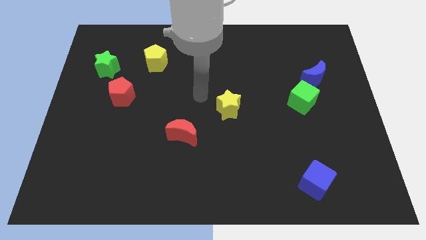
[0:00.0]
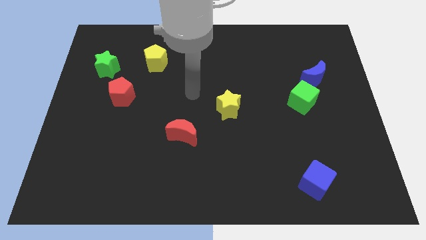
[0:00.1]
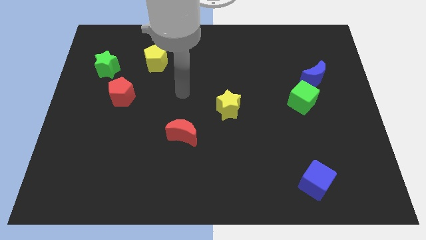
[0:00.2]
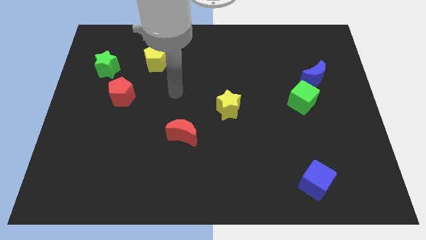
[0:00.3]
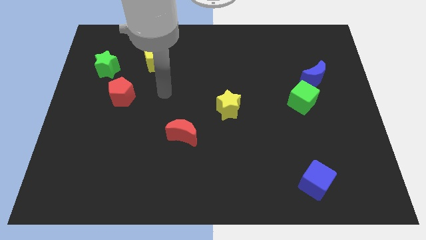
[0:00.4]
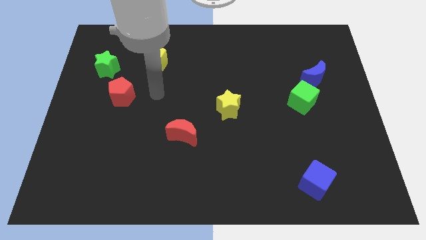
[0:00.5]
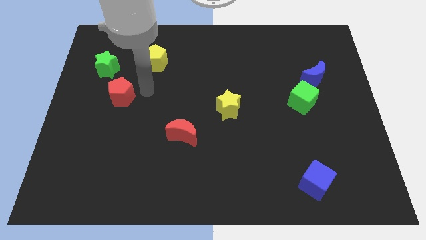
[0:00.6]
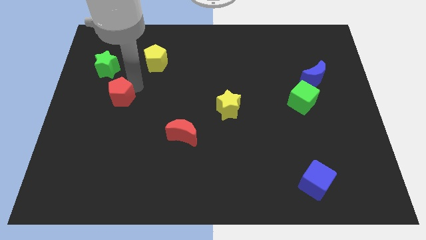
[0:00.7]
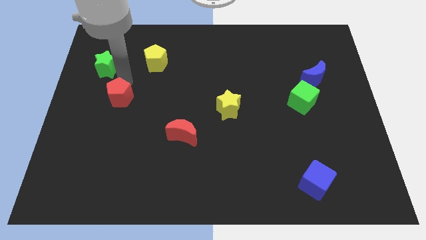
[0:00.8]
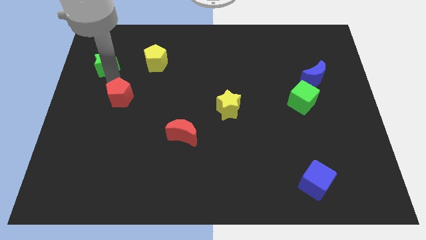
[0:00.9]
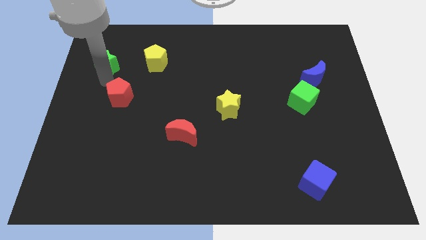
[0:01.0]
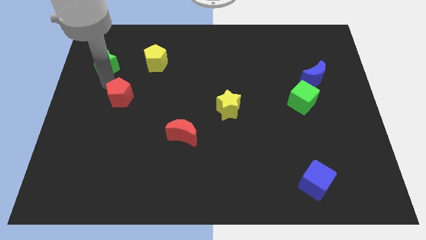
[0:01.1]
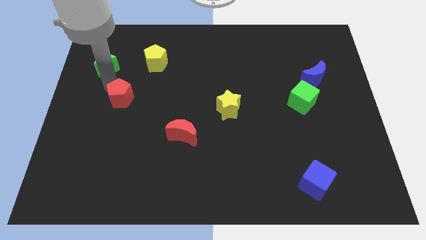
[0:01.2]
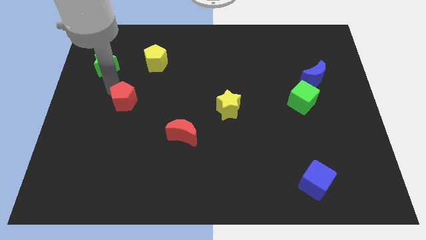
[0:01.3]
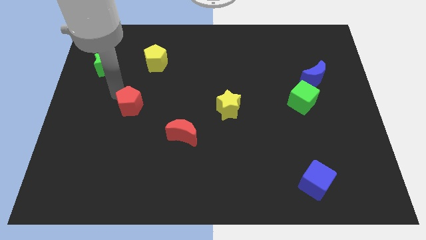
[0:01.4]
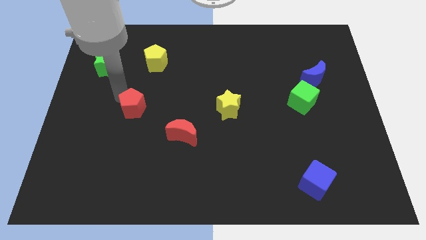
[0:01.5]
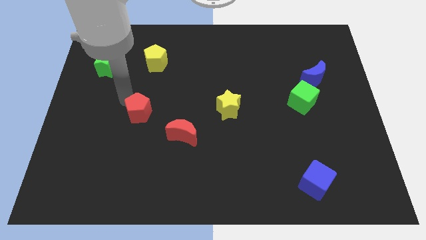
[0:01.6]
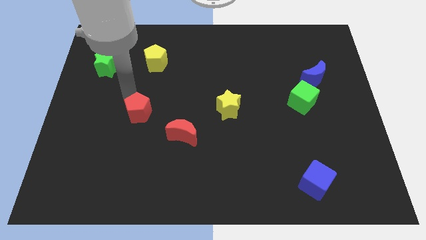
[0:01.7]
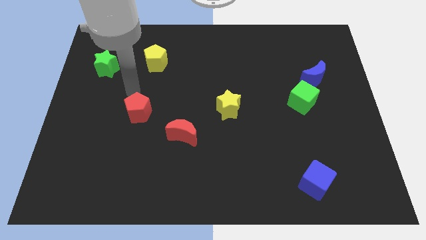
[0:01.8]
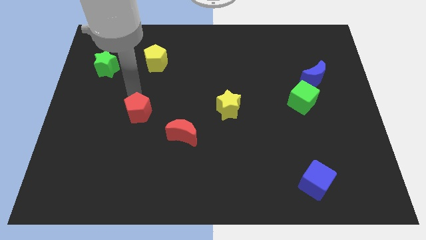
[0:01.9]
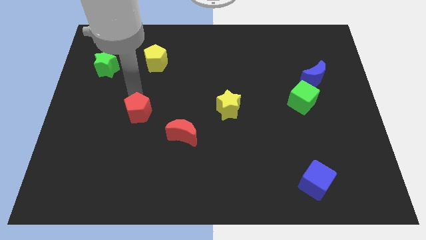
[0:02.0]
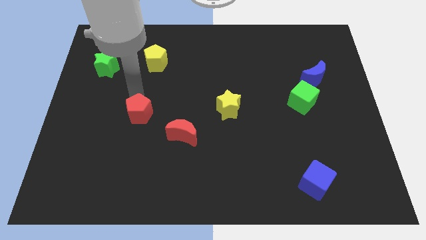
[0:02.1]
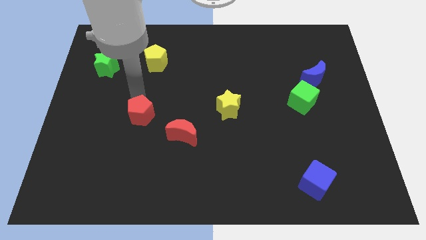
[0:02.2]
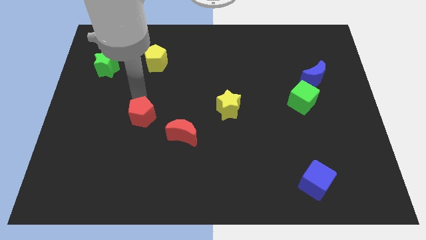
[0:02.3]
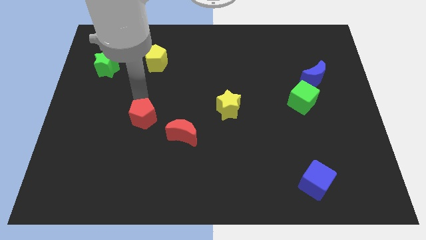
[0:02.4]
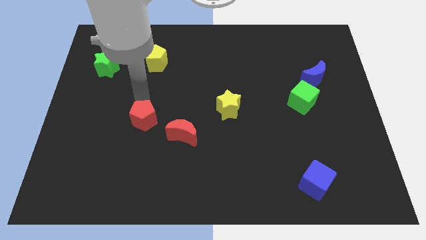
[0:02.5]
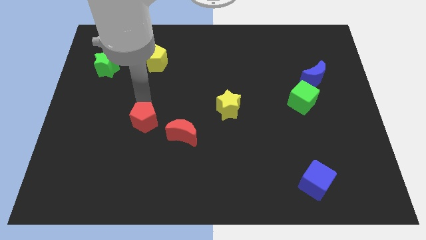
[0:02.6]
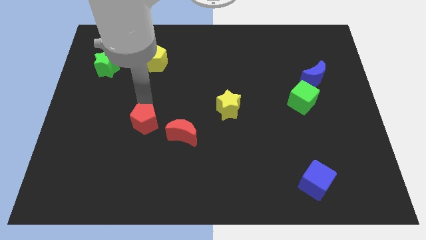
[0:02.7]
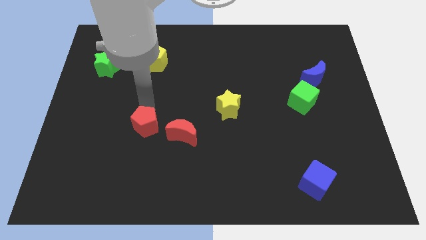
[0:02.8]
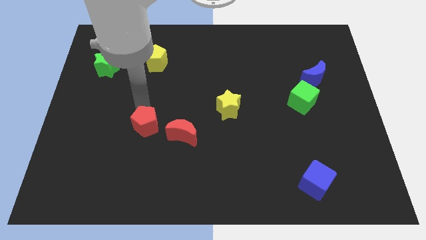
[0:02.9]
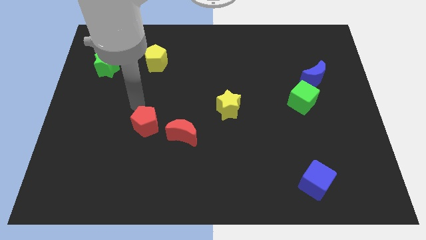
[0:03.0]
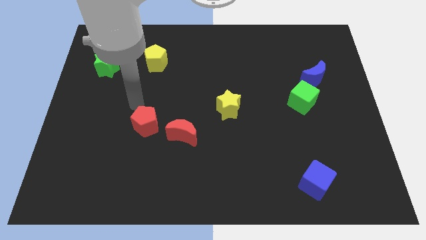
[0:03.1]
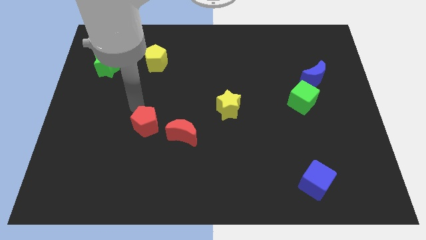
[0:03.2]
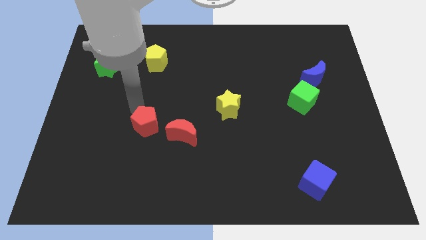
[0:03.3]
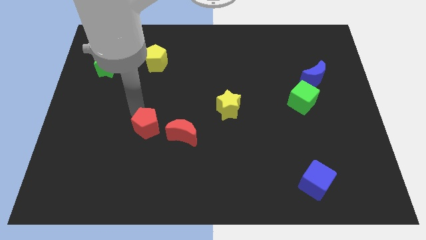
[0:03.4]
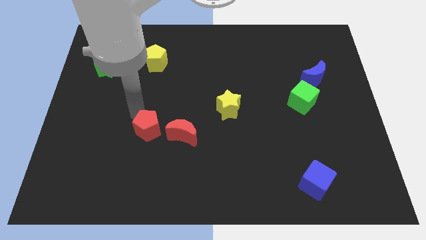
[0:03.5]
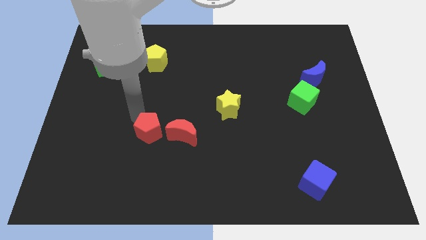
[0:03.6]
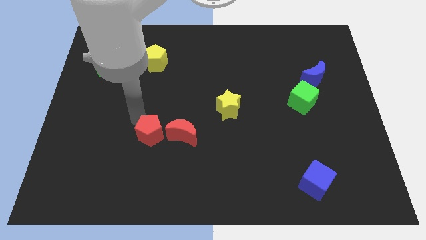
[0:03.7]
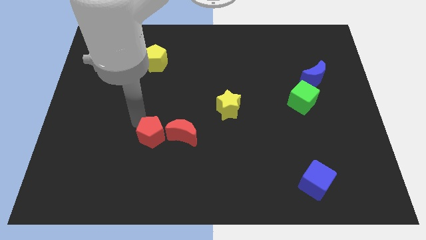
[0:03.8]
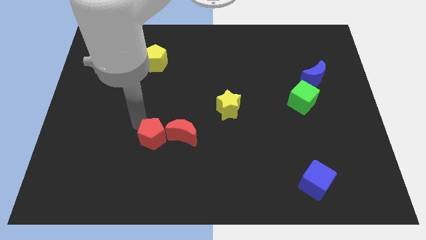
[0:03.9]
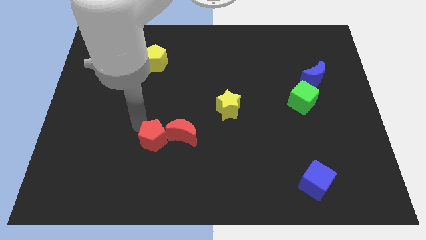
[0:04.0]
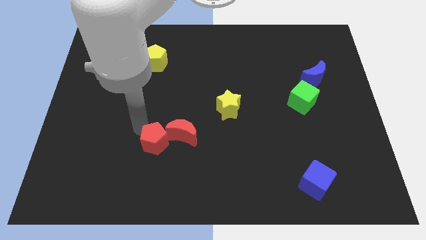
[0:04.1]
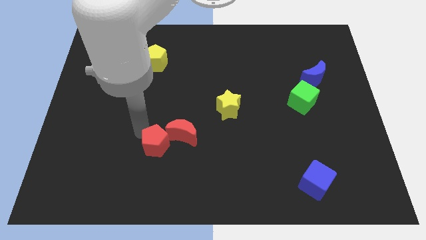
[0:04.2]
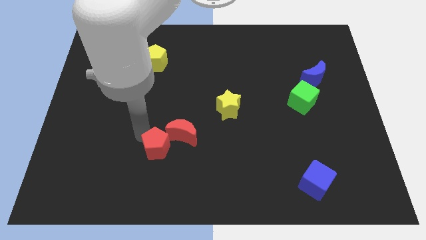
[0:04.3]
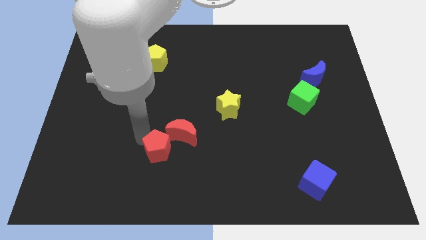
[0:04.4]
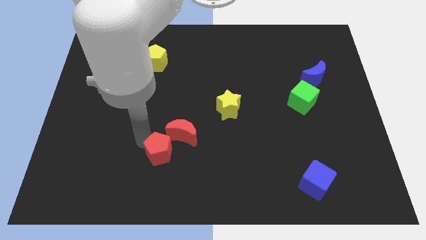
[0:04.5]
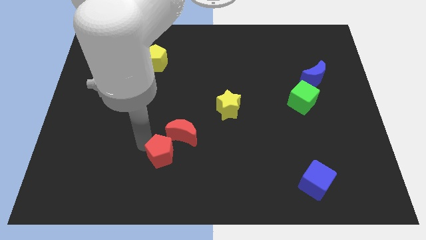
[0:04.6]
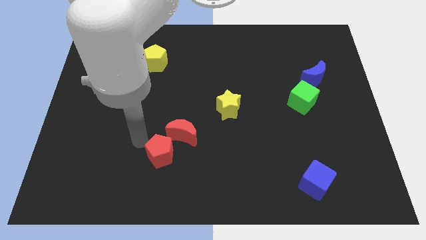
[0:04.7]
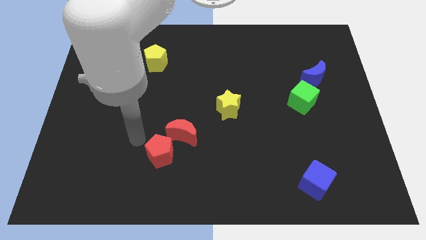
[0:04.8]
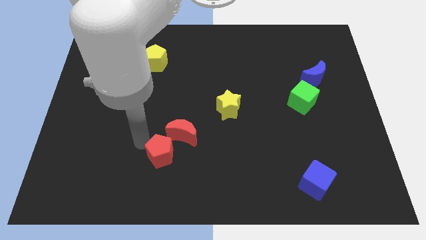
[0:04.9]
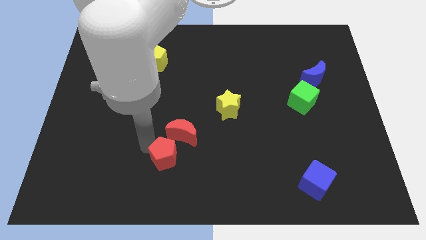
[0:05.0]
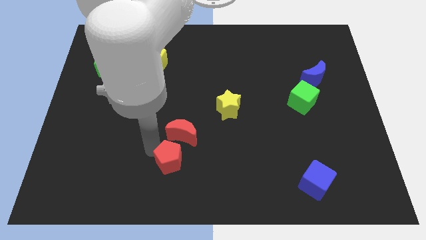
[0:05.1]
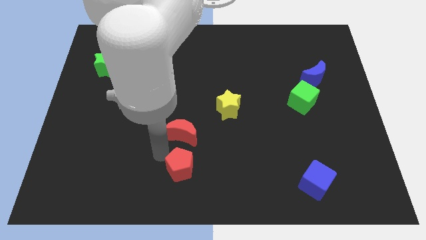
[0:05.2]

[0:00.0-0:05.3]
slide the red pentagon to the bottom side

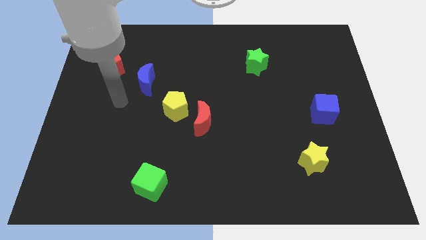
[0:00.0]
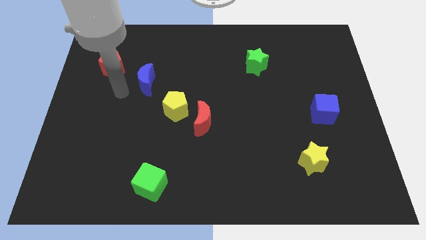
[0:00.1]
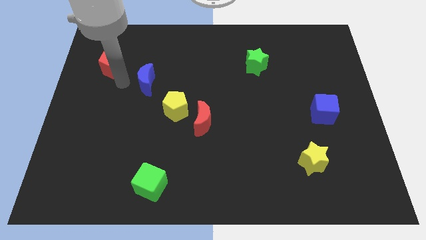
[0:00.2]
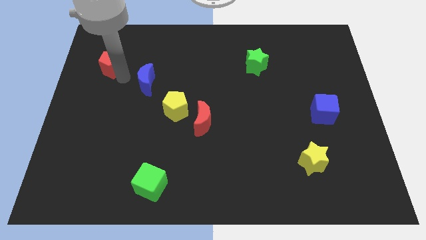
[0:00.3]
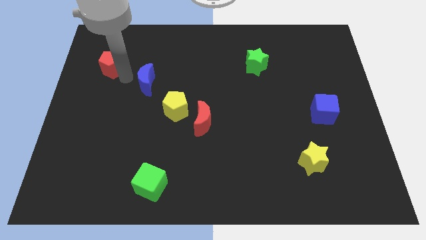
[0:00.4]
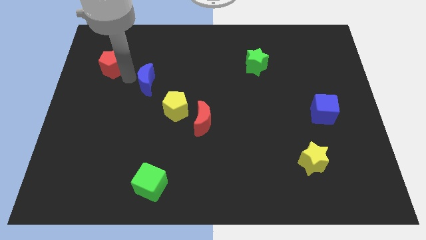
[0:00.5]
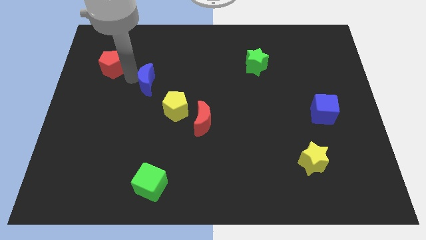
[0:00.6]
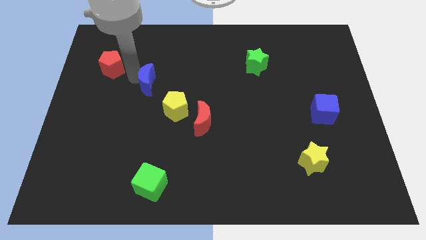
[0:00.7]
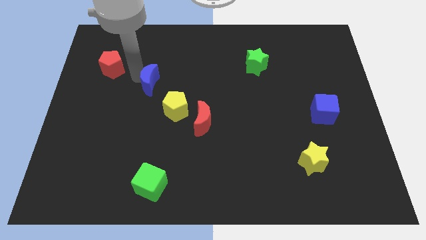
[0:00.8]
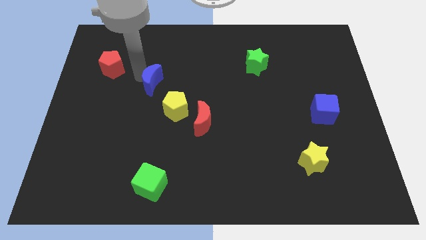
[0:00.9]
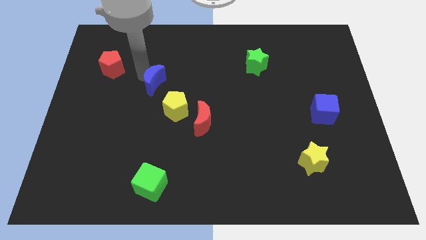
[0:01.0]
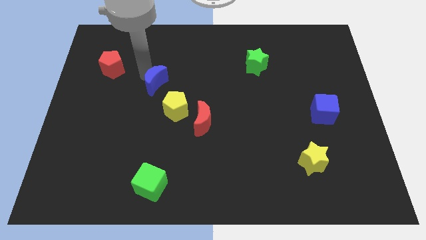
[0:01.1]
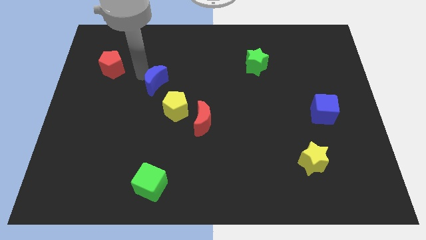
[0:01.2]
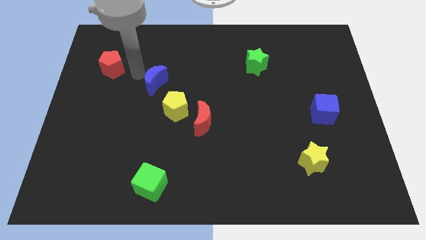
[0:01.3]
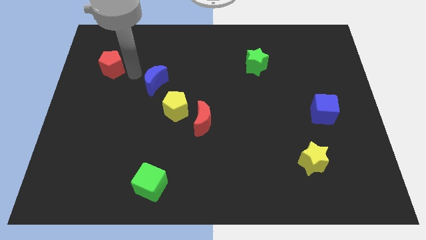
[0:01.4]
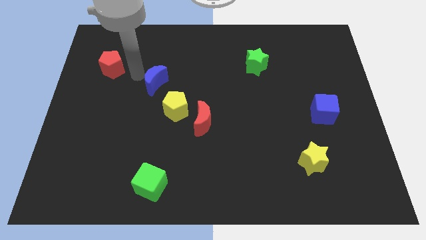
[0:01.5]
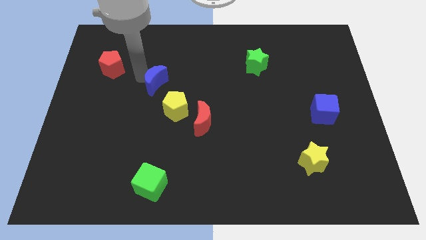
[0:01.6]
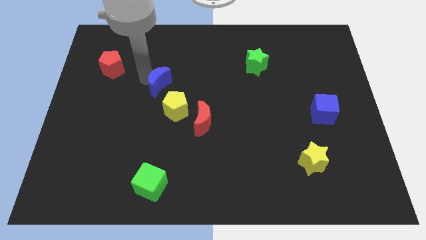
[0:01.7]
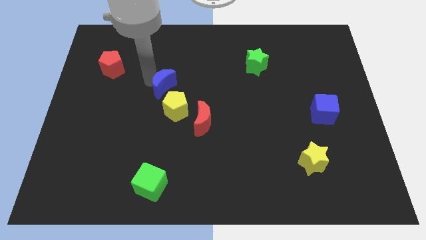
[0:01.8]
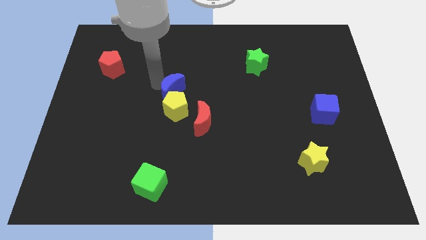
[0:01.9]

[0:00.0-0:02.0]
move the blue moon to the center
